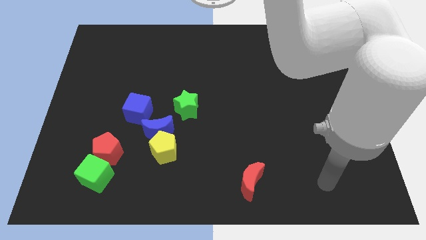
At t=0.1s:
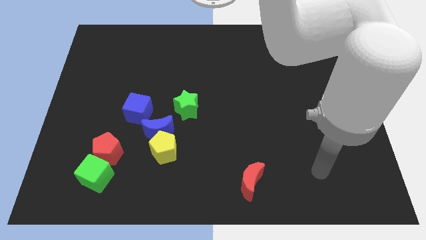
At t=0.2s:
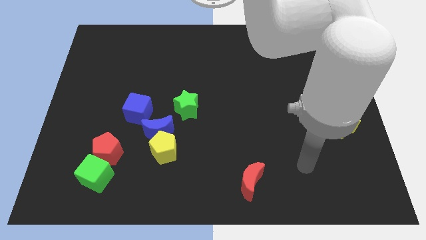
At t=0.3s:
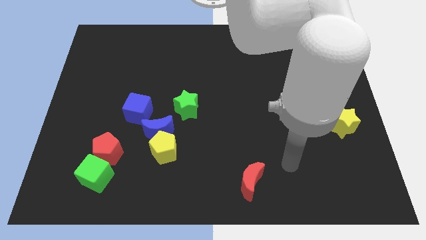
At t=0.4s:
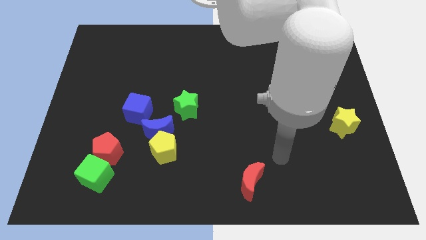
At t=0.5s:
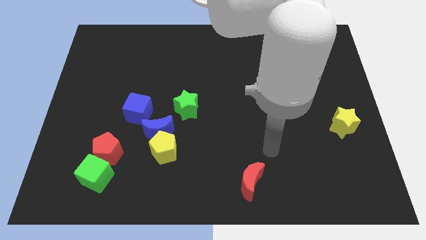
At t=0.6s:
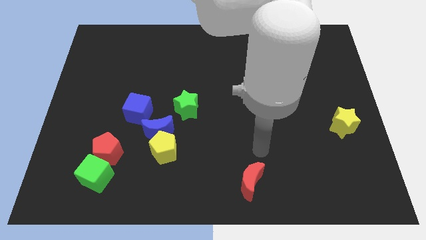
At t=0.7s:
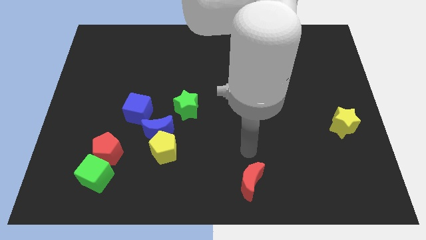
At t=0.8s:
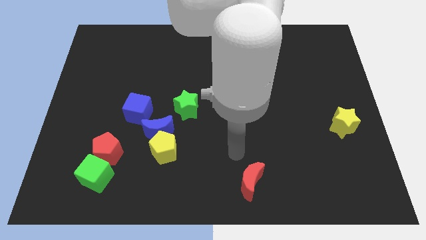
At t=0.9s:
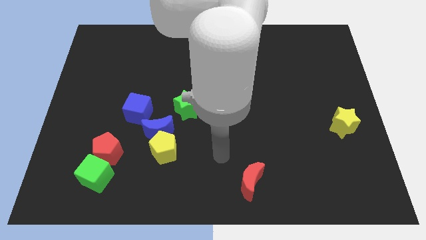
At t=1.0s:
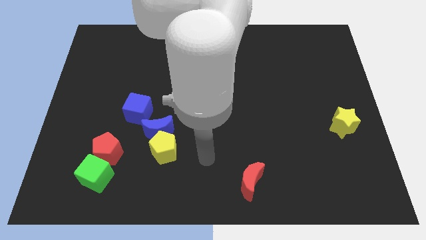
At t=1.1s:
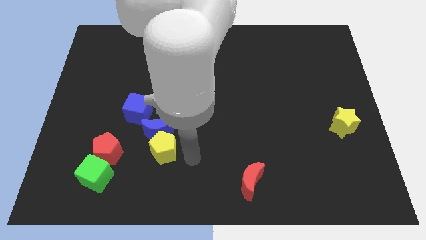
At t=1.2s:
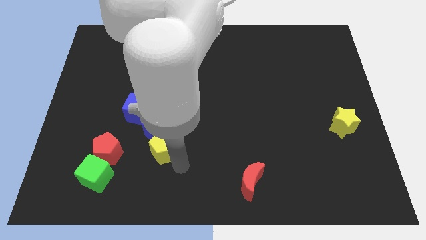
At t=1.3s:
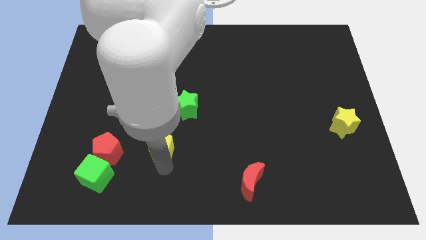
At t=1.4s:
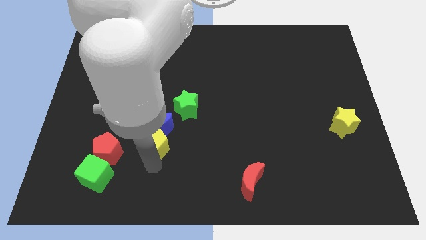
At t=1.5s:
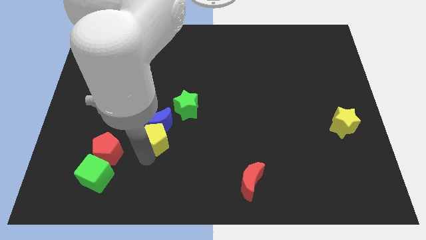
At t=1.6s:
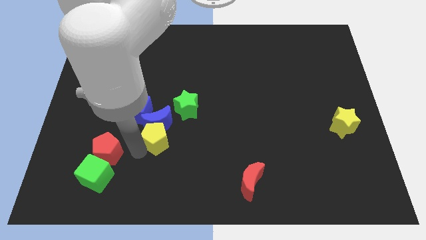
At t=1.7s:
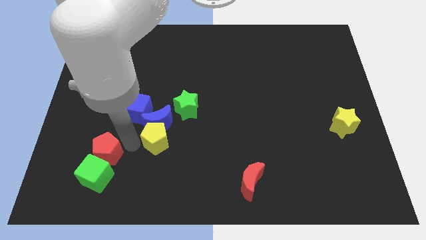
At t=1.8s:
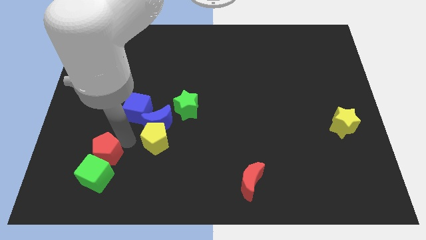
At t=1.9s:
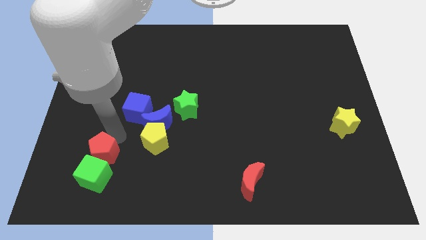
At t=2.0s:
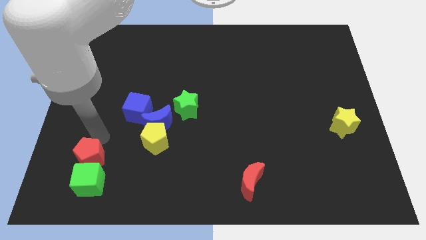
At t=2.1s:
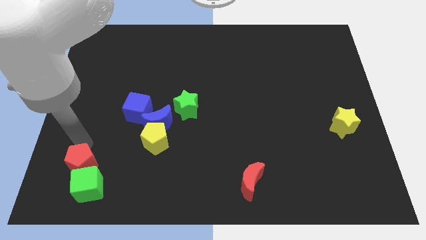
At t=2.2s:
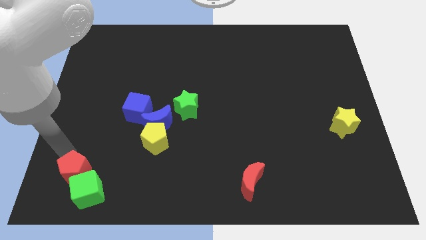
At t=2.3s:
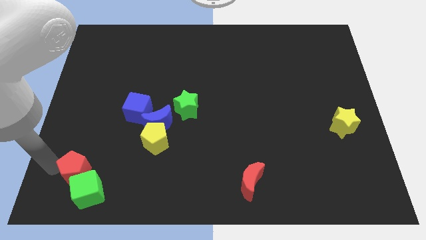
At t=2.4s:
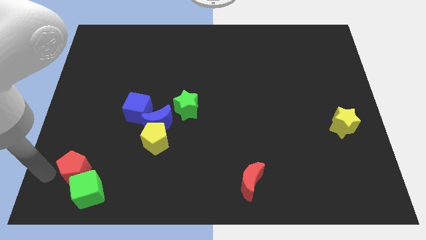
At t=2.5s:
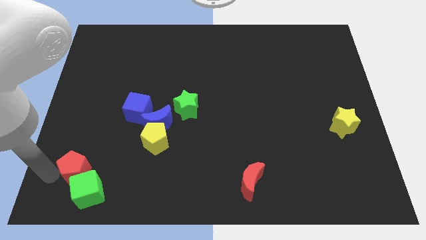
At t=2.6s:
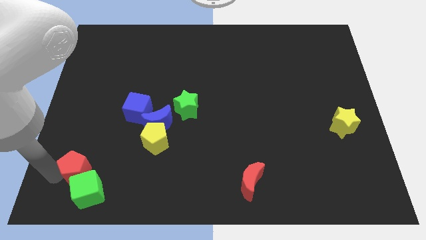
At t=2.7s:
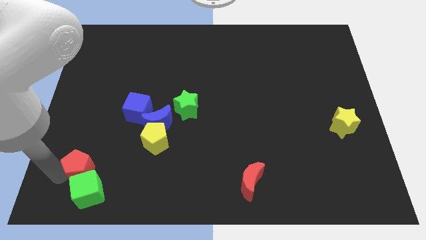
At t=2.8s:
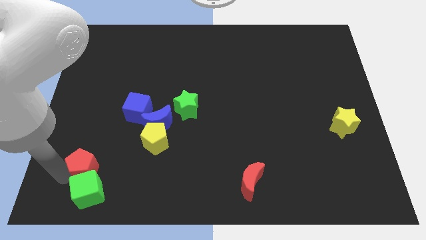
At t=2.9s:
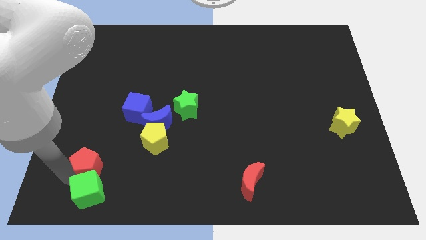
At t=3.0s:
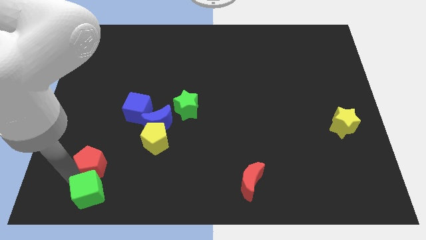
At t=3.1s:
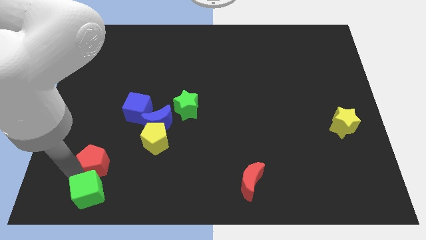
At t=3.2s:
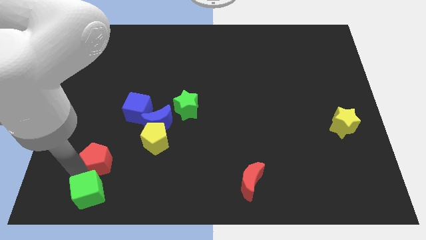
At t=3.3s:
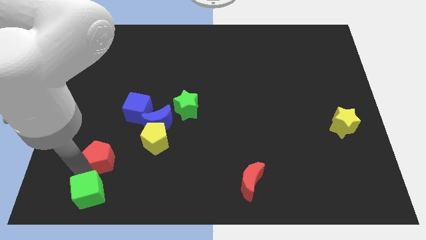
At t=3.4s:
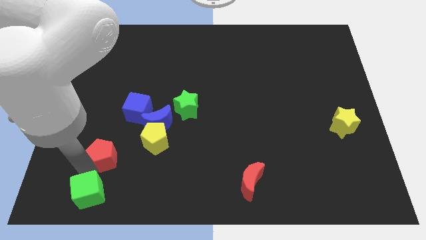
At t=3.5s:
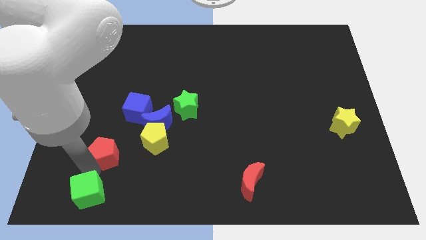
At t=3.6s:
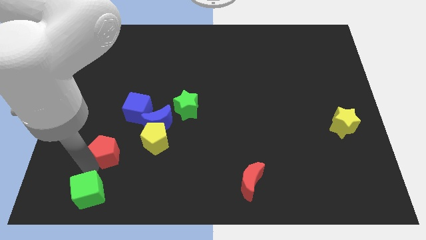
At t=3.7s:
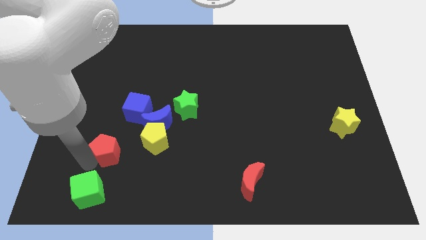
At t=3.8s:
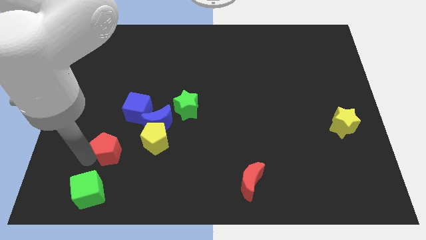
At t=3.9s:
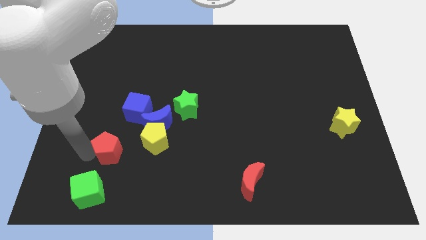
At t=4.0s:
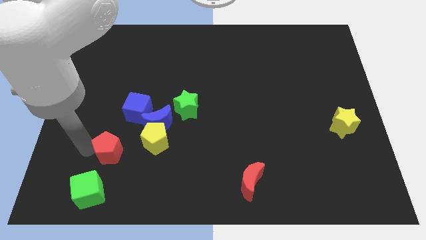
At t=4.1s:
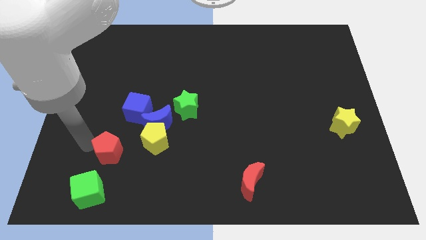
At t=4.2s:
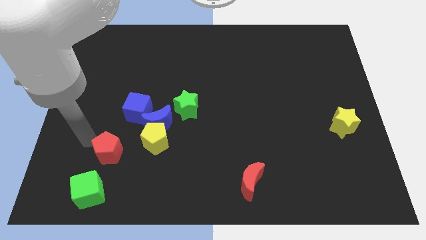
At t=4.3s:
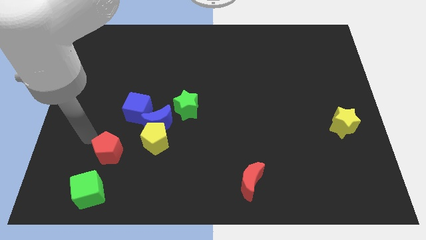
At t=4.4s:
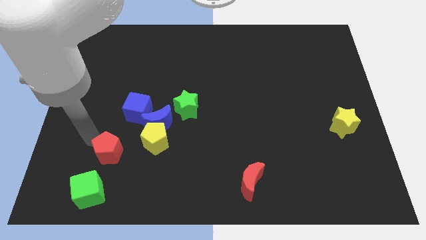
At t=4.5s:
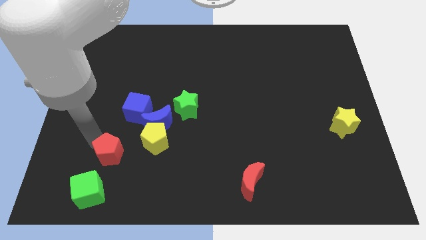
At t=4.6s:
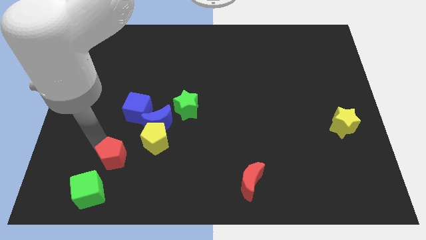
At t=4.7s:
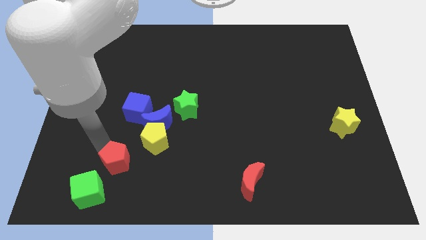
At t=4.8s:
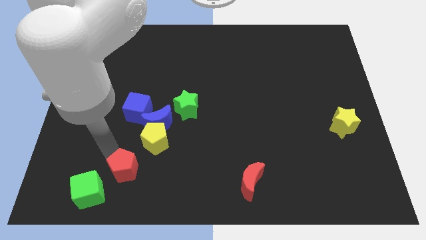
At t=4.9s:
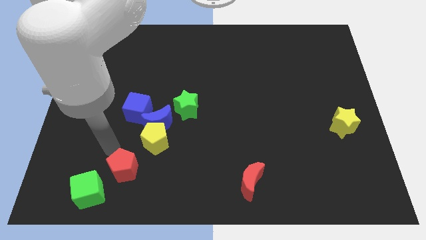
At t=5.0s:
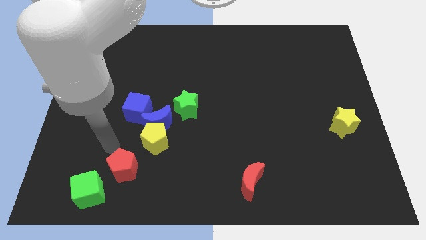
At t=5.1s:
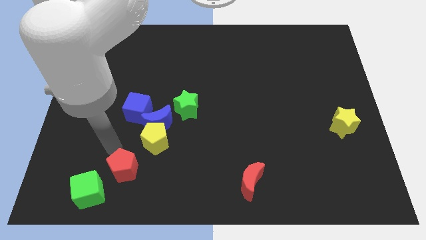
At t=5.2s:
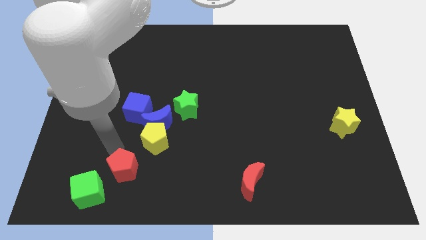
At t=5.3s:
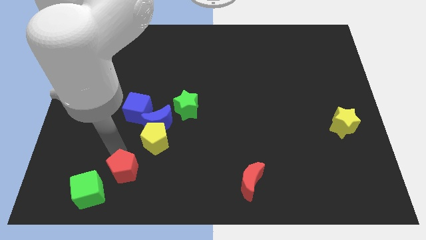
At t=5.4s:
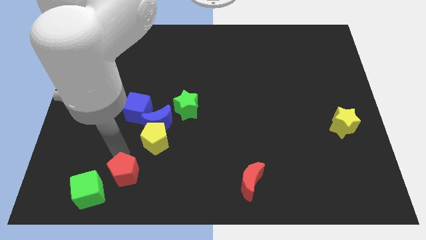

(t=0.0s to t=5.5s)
put the red pentagon just right of the green cube

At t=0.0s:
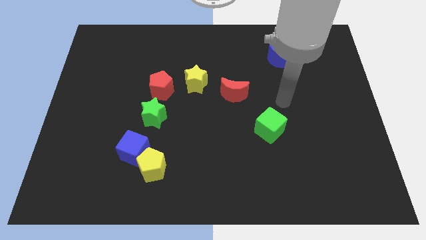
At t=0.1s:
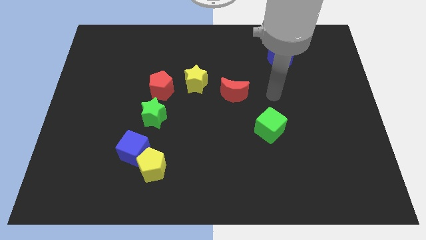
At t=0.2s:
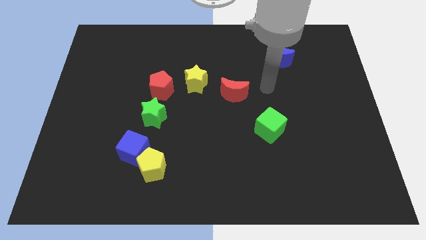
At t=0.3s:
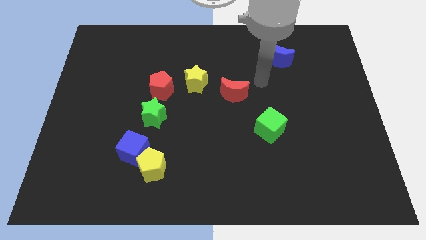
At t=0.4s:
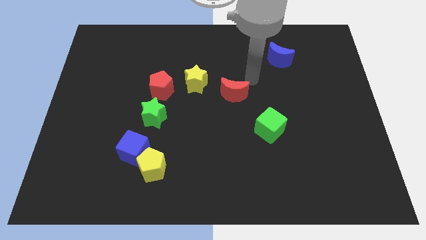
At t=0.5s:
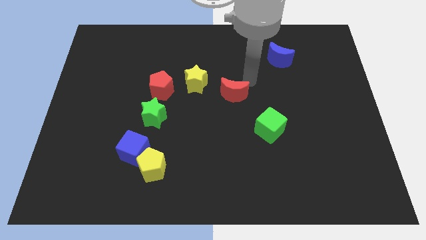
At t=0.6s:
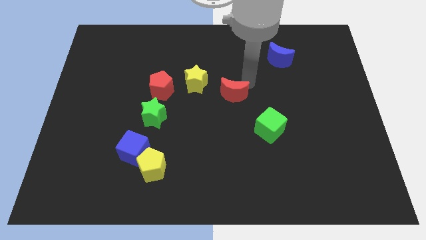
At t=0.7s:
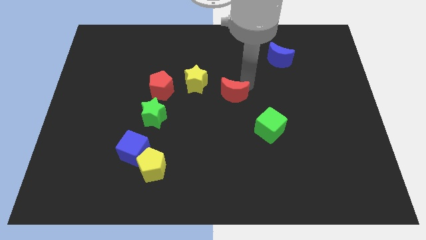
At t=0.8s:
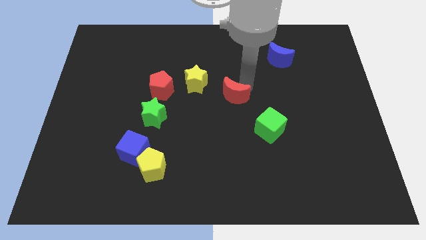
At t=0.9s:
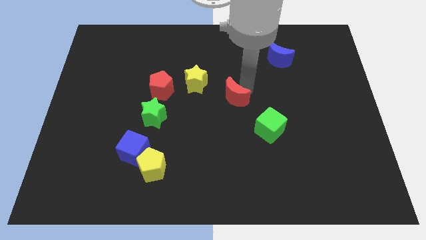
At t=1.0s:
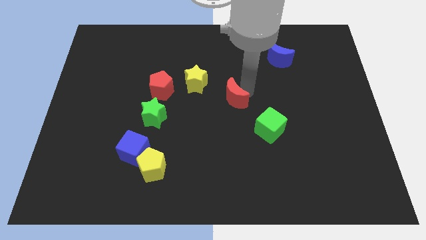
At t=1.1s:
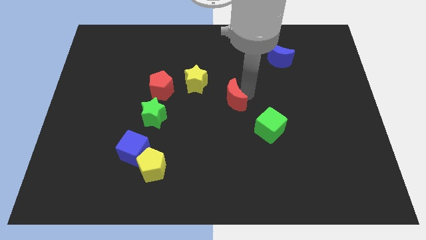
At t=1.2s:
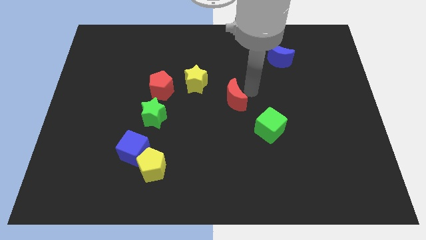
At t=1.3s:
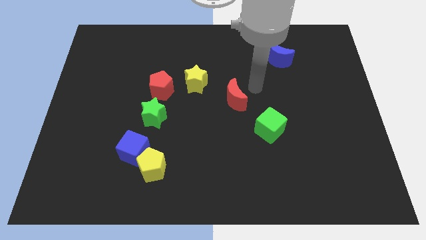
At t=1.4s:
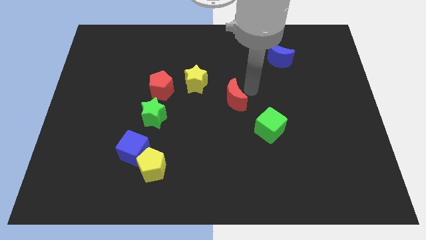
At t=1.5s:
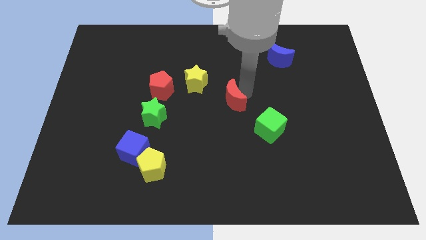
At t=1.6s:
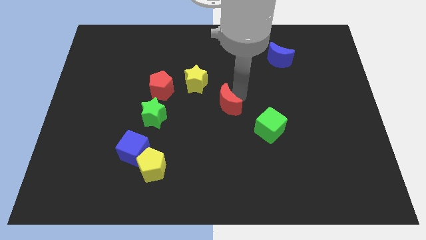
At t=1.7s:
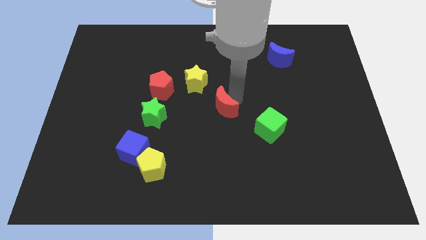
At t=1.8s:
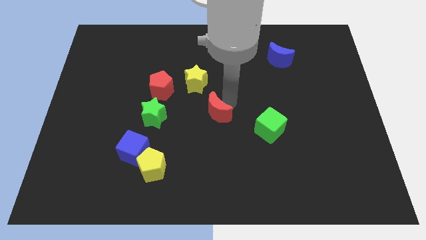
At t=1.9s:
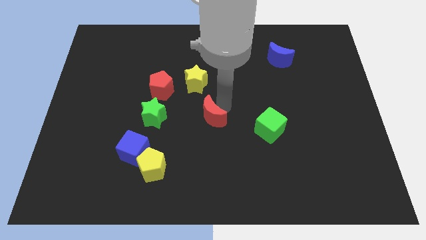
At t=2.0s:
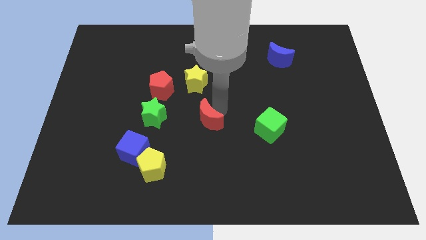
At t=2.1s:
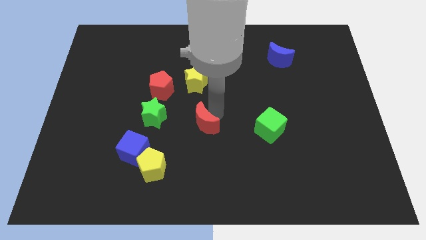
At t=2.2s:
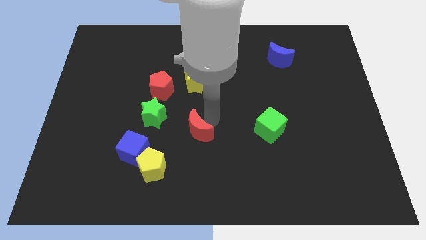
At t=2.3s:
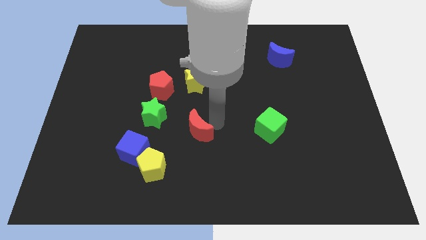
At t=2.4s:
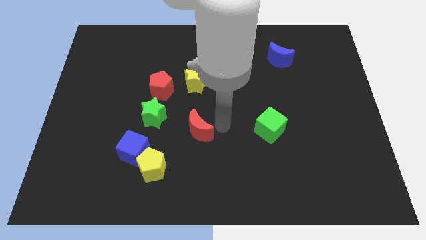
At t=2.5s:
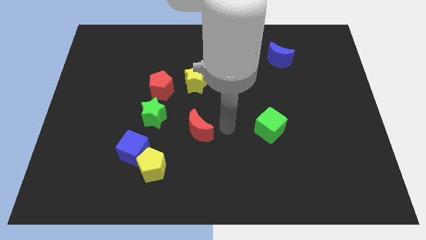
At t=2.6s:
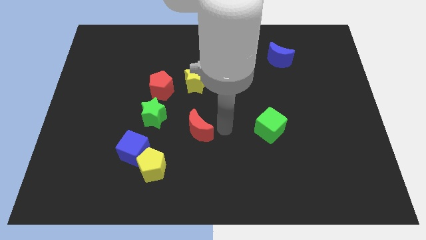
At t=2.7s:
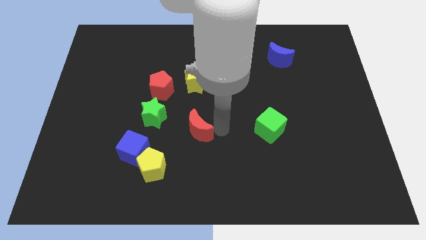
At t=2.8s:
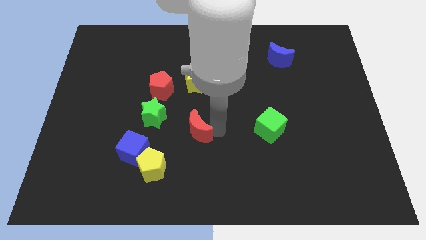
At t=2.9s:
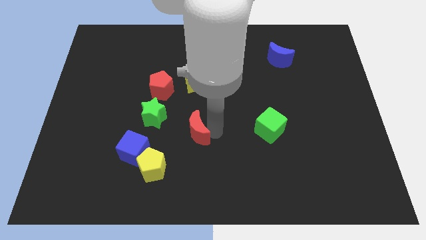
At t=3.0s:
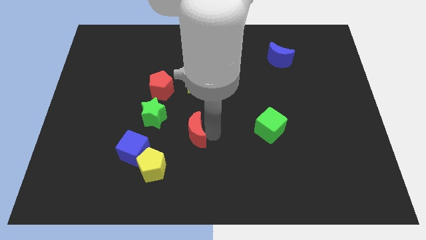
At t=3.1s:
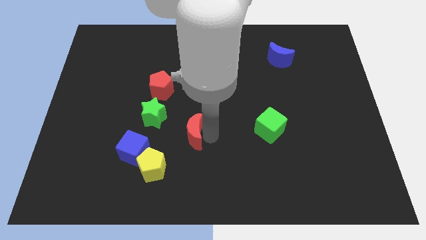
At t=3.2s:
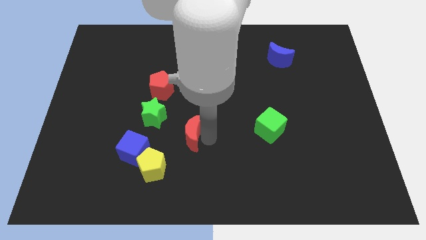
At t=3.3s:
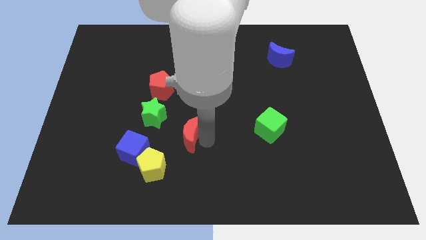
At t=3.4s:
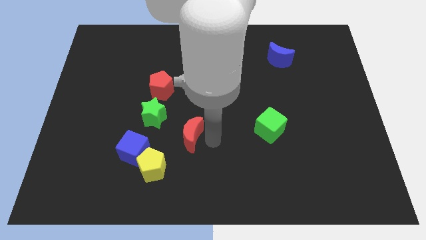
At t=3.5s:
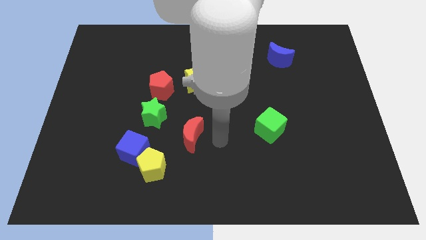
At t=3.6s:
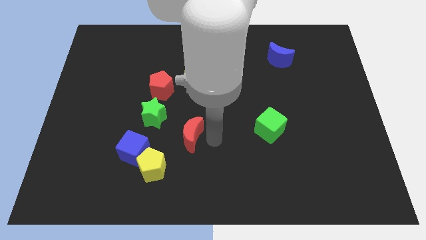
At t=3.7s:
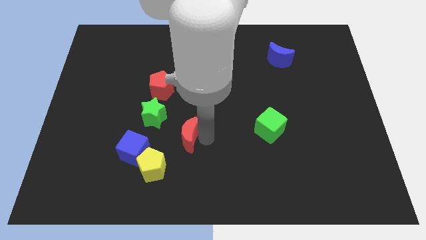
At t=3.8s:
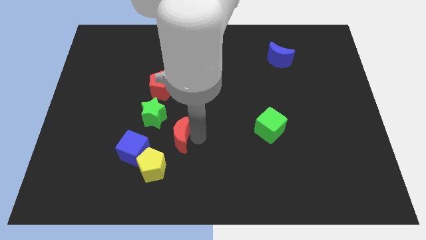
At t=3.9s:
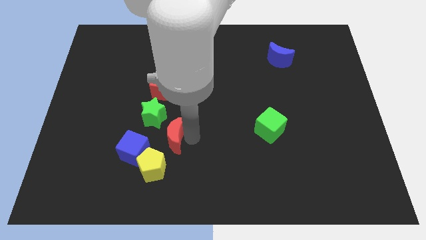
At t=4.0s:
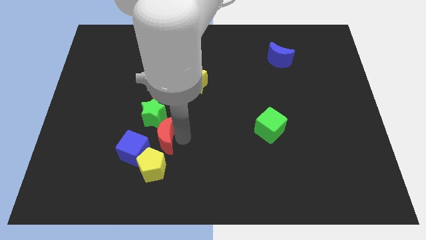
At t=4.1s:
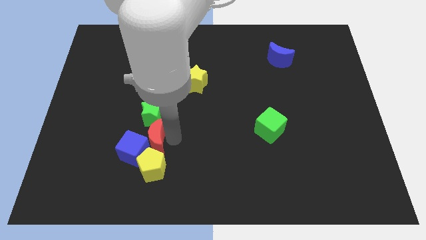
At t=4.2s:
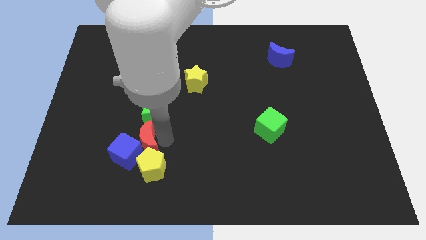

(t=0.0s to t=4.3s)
slide the red moon to the bottom left of the green star
